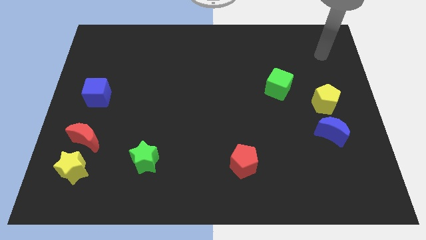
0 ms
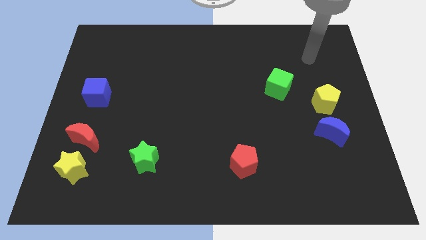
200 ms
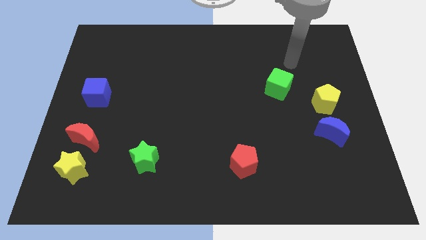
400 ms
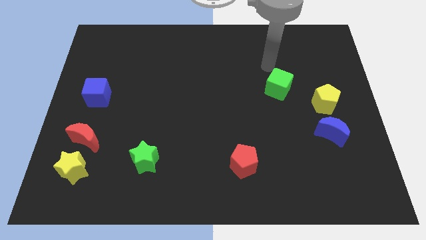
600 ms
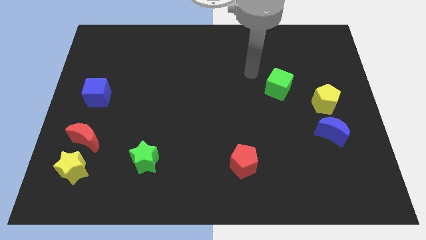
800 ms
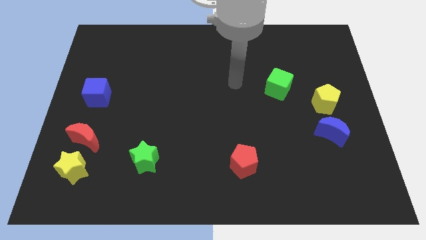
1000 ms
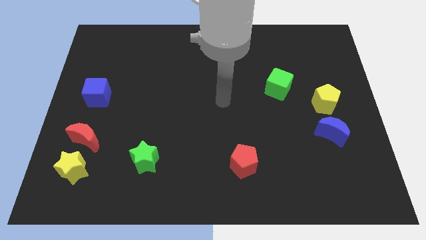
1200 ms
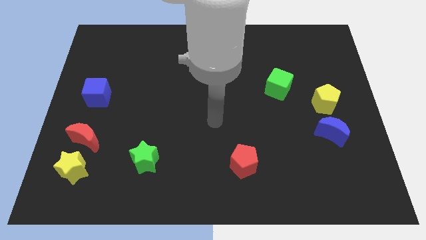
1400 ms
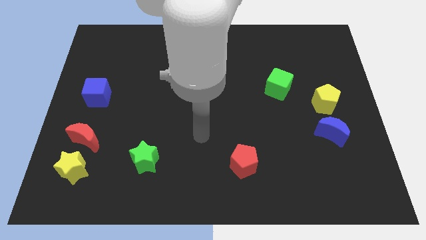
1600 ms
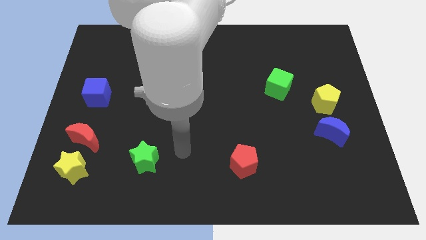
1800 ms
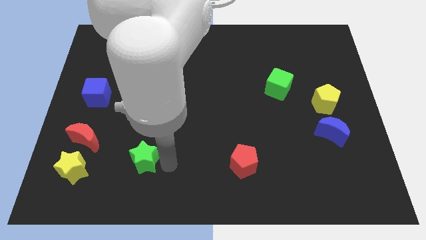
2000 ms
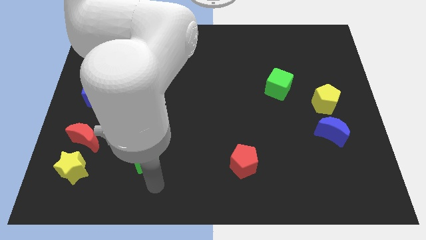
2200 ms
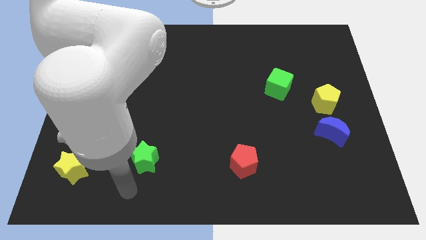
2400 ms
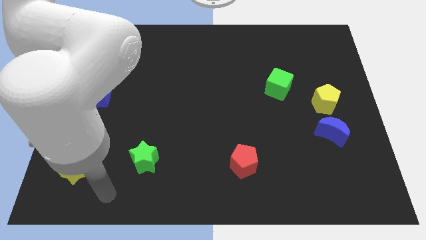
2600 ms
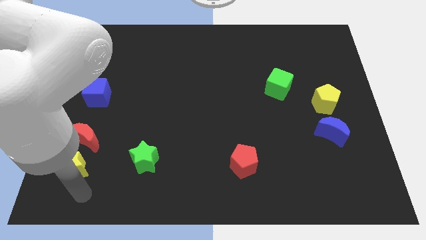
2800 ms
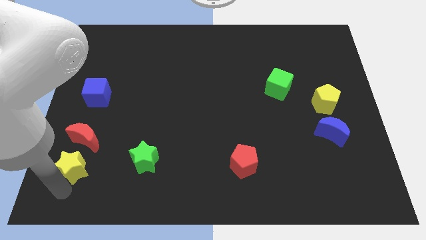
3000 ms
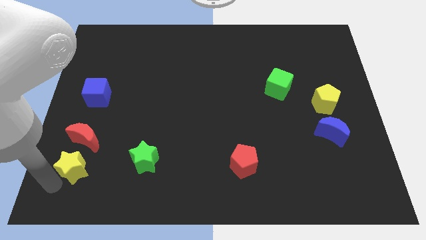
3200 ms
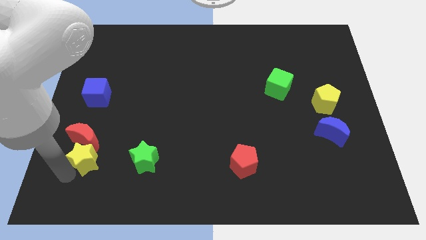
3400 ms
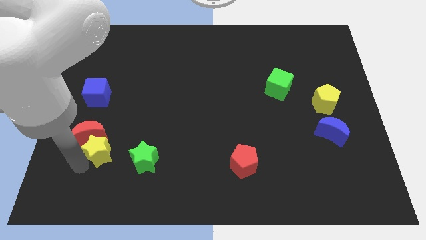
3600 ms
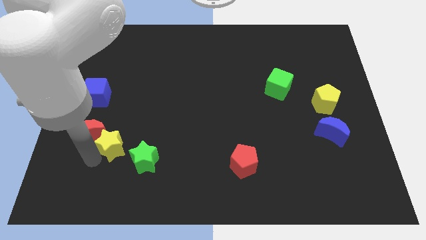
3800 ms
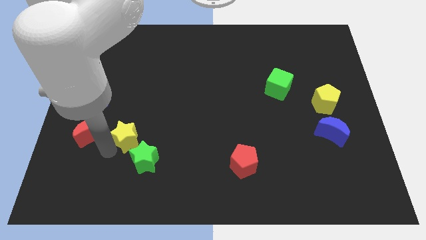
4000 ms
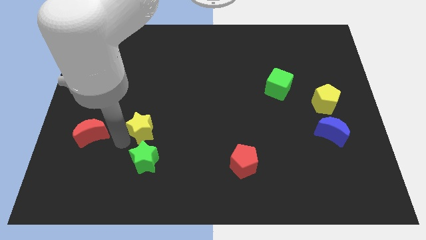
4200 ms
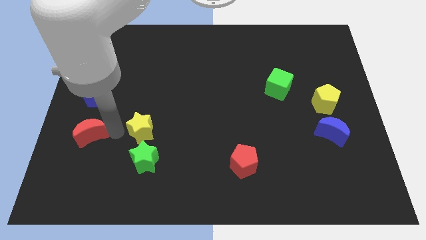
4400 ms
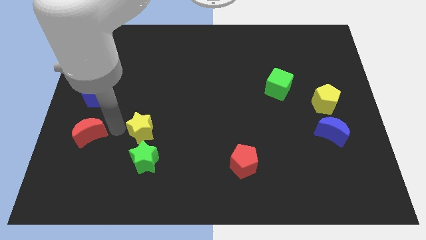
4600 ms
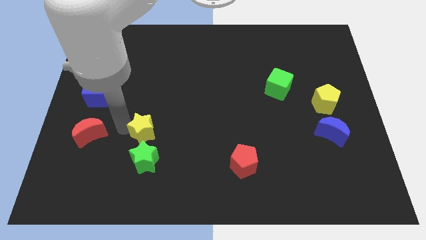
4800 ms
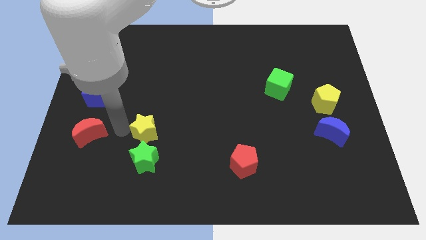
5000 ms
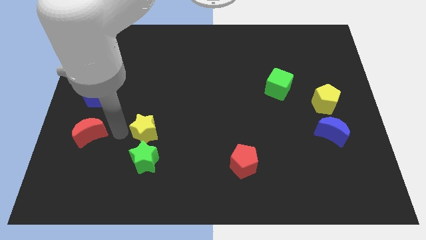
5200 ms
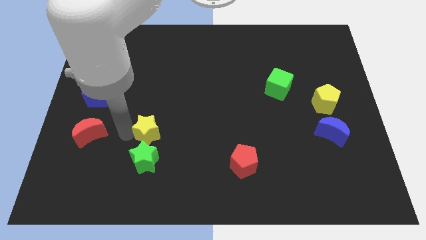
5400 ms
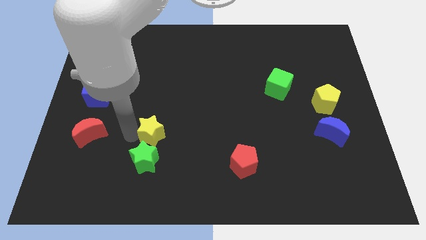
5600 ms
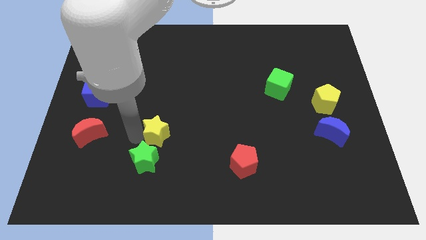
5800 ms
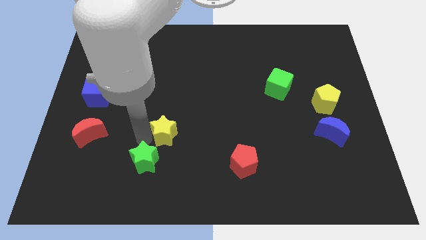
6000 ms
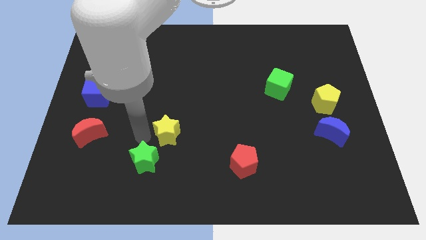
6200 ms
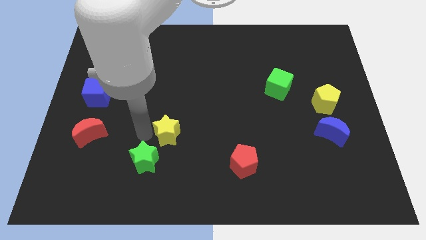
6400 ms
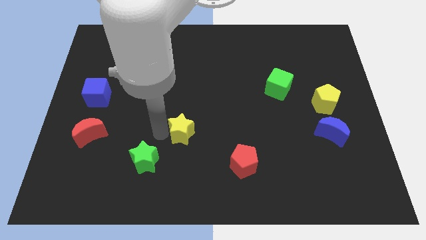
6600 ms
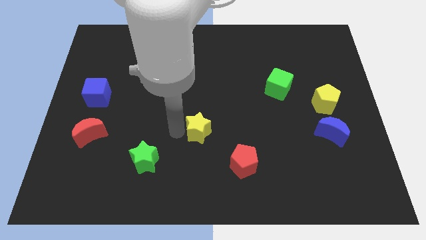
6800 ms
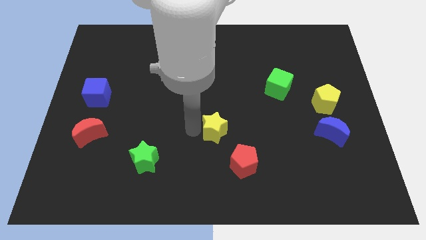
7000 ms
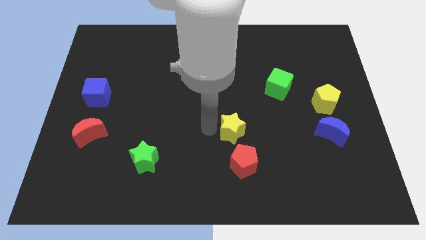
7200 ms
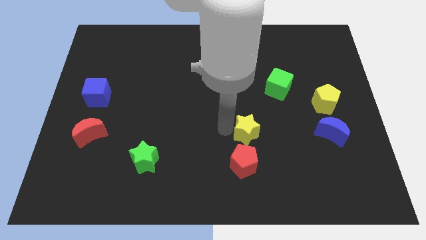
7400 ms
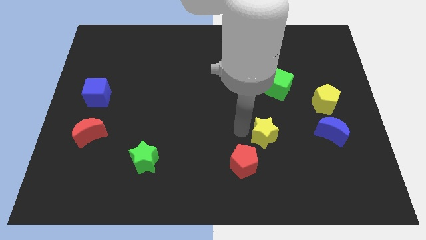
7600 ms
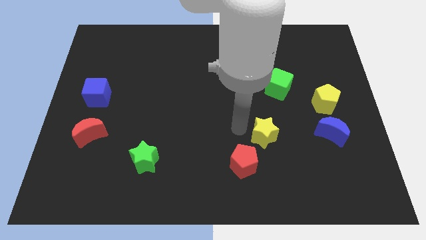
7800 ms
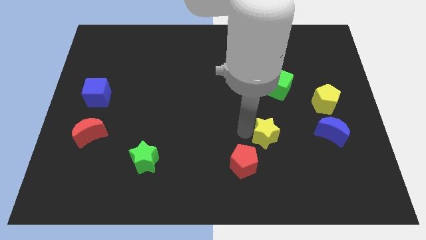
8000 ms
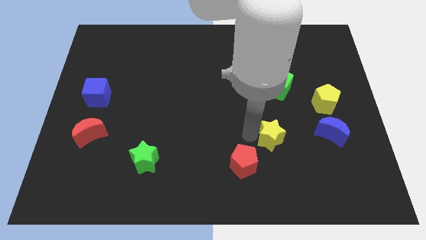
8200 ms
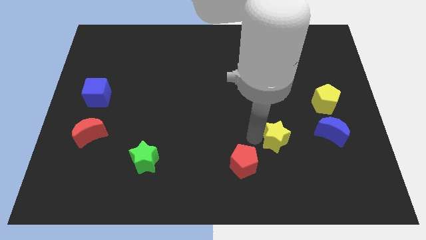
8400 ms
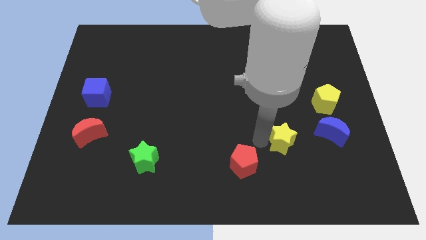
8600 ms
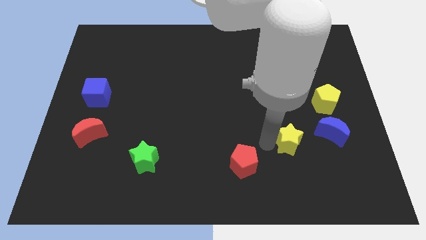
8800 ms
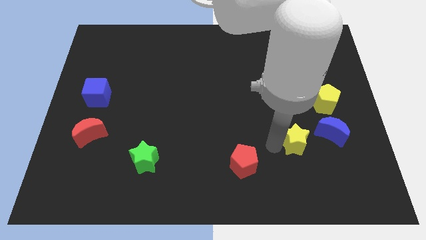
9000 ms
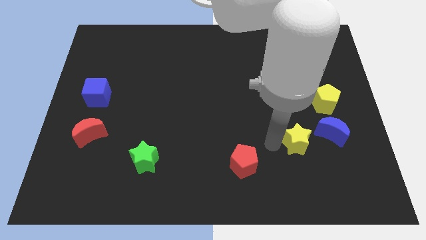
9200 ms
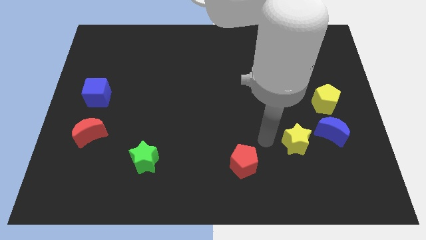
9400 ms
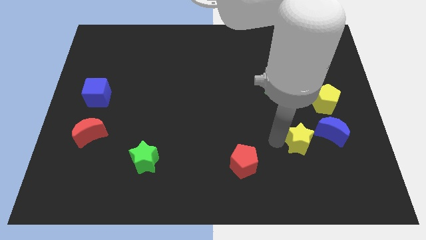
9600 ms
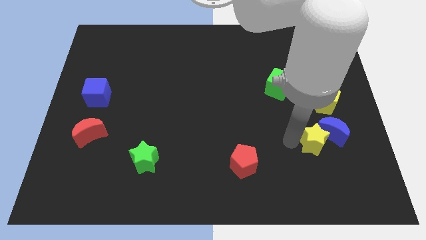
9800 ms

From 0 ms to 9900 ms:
slide the yellow star below the yellow pentagon

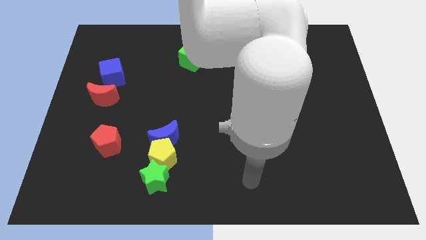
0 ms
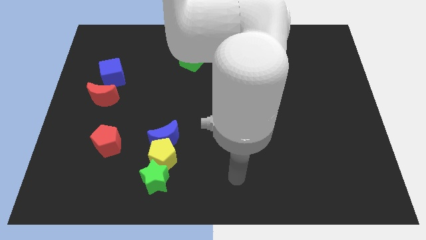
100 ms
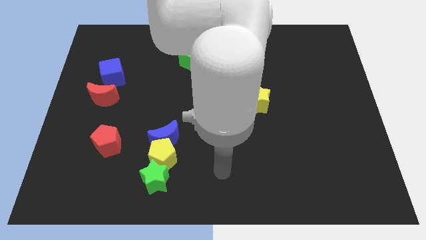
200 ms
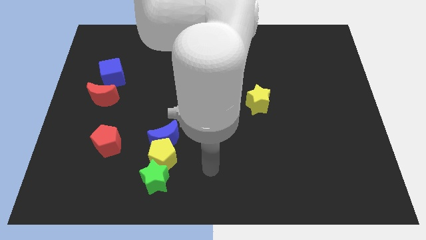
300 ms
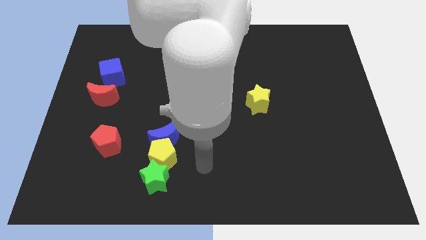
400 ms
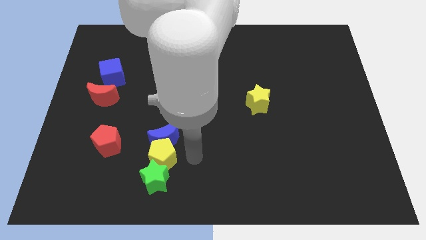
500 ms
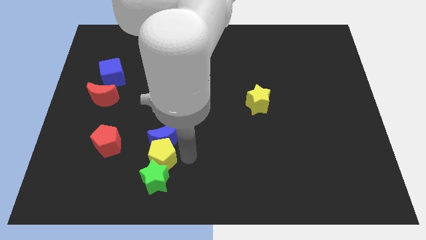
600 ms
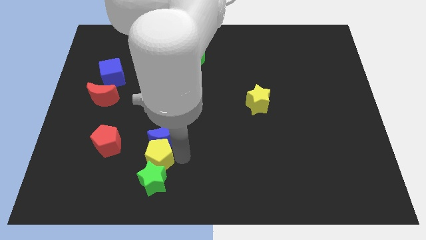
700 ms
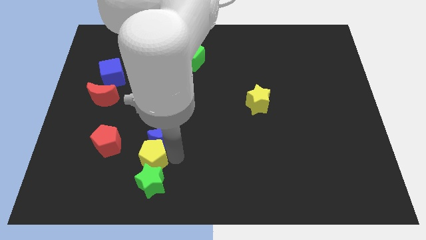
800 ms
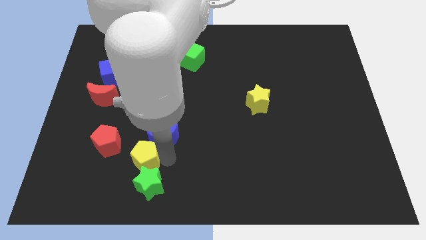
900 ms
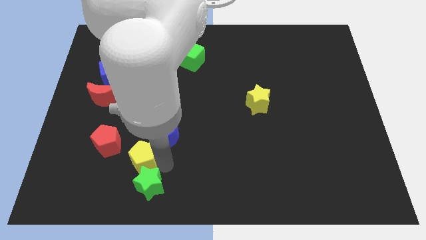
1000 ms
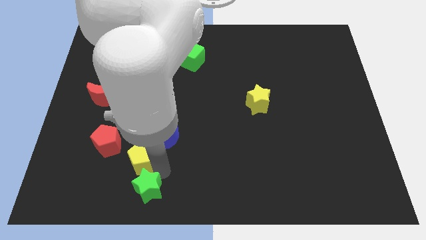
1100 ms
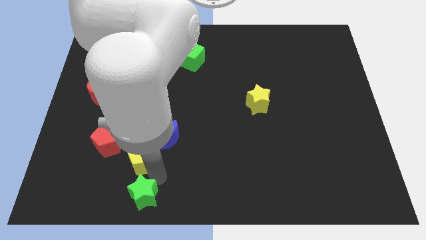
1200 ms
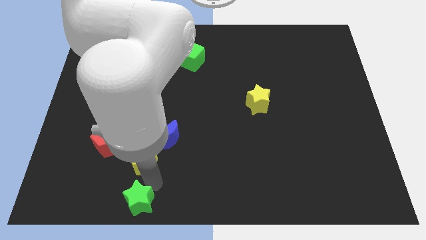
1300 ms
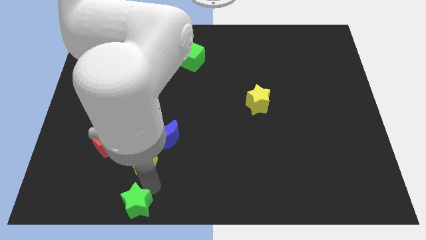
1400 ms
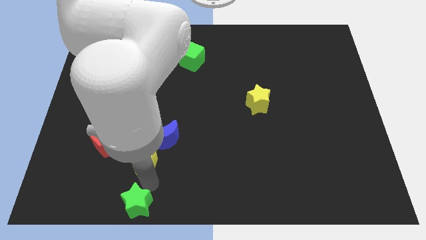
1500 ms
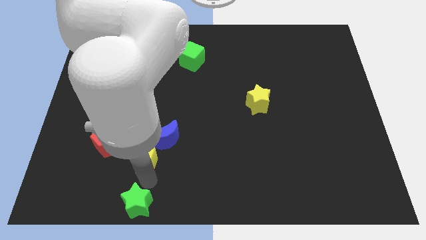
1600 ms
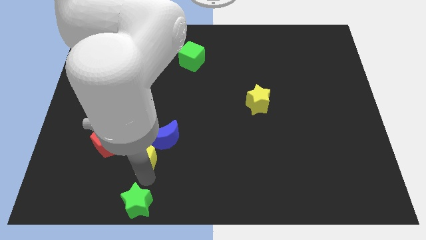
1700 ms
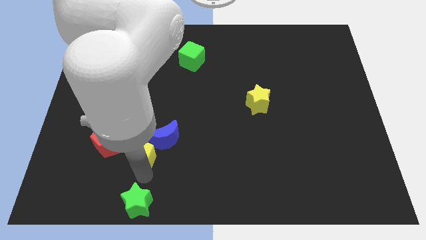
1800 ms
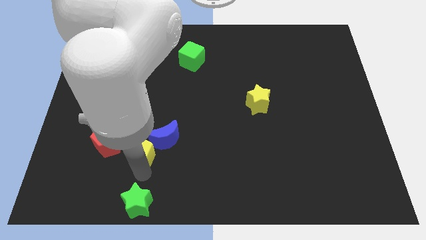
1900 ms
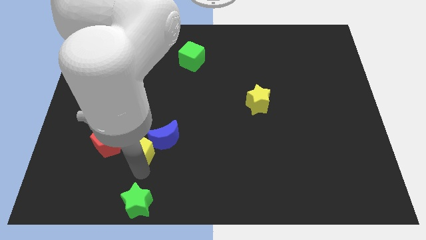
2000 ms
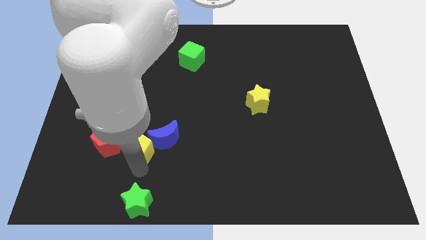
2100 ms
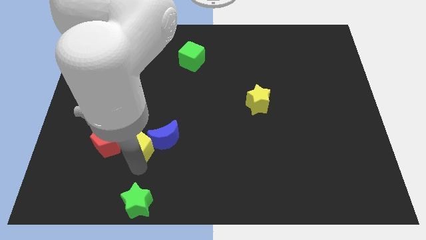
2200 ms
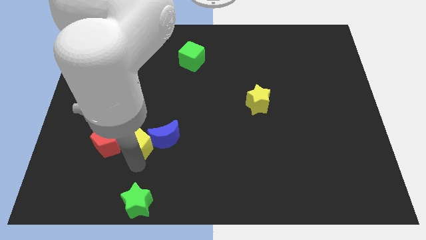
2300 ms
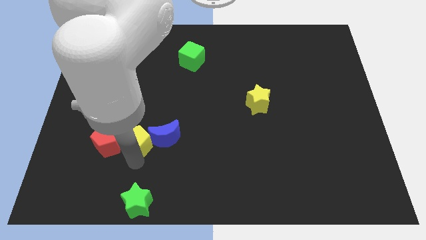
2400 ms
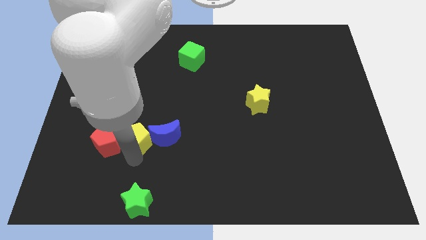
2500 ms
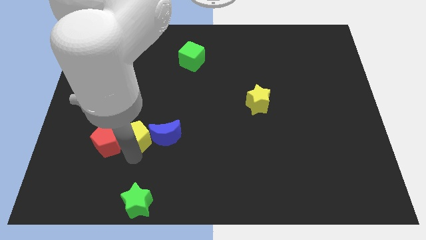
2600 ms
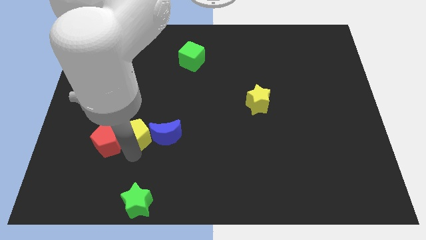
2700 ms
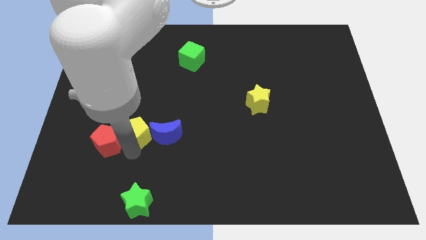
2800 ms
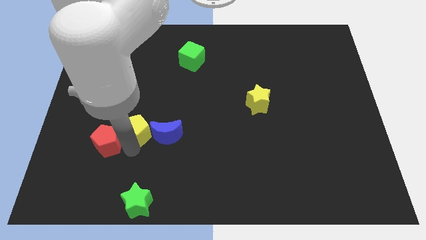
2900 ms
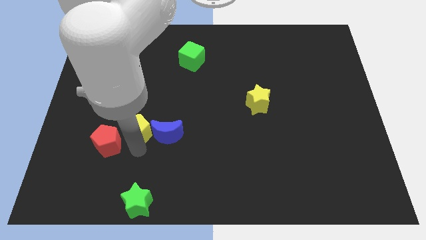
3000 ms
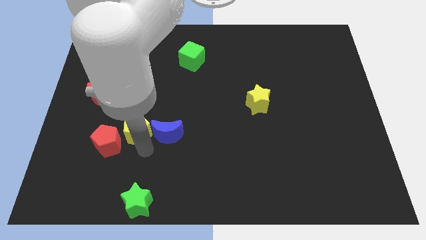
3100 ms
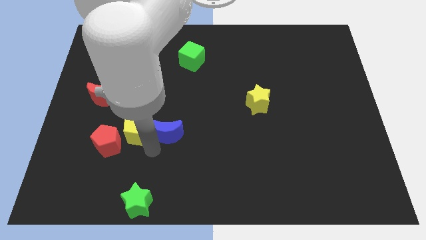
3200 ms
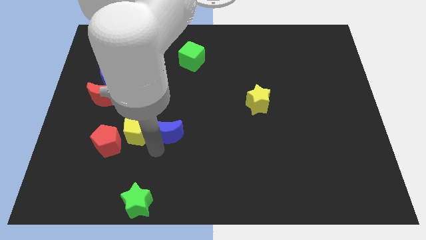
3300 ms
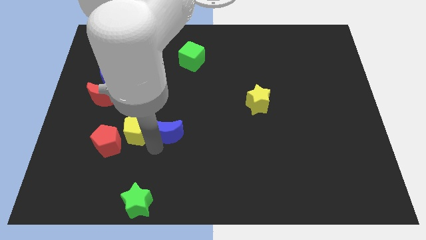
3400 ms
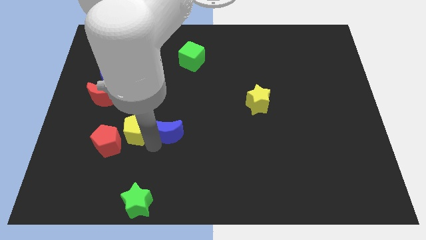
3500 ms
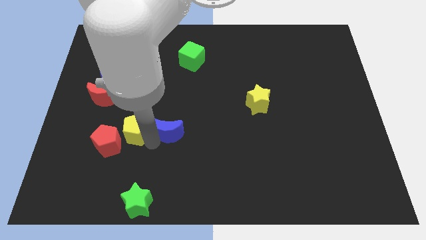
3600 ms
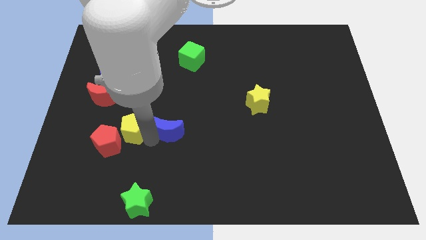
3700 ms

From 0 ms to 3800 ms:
move the yellow pentagon to the bottom right side of the red moon
